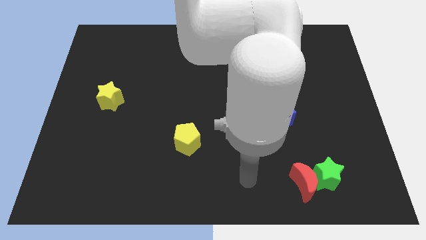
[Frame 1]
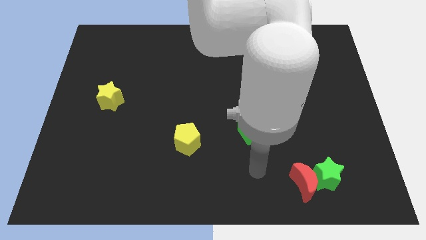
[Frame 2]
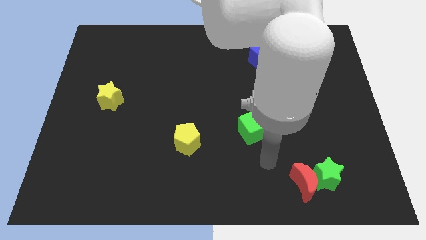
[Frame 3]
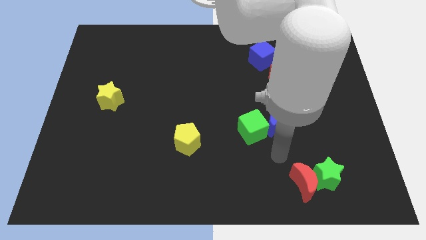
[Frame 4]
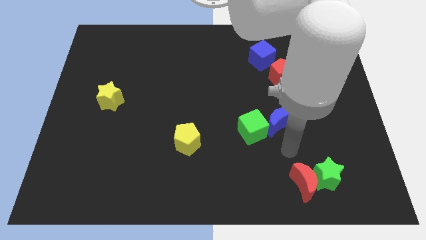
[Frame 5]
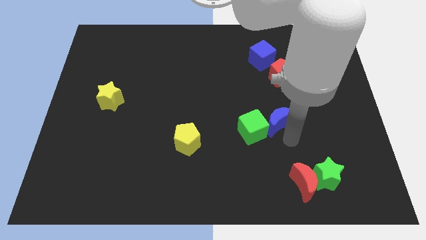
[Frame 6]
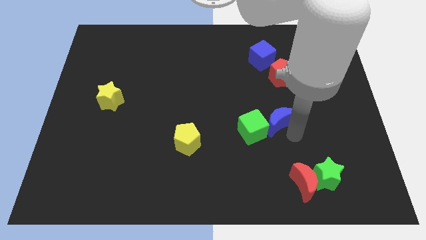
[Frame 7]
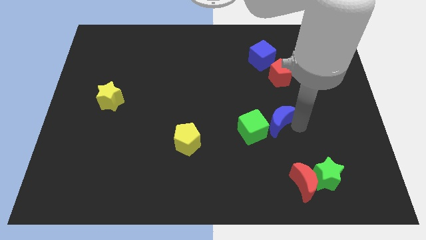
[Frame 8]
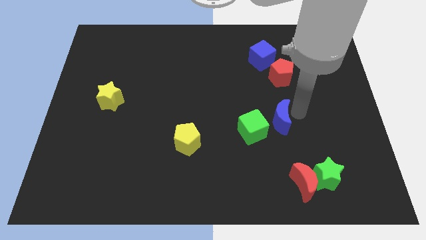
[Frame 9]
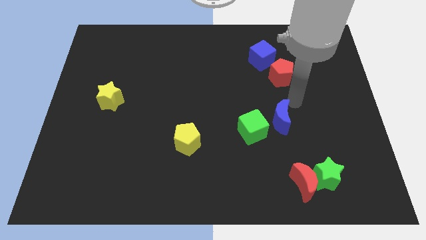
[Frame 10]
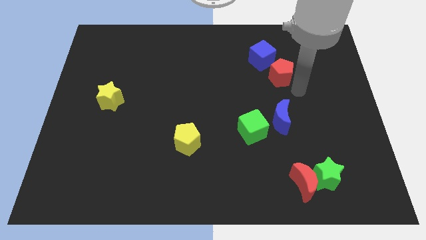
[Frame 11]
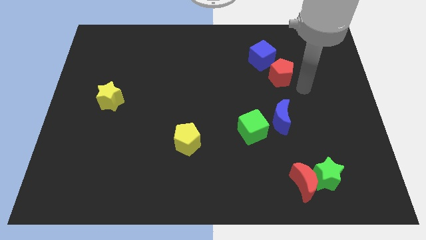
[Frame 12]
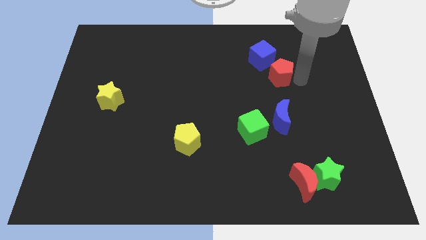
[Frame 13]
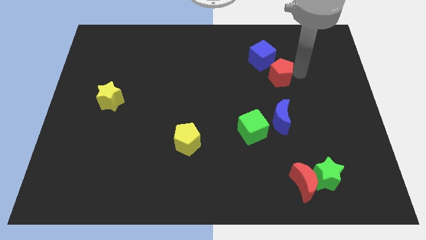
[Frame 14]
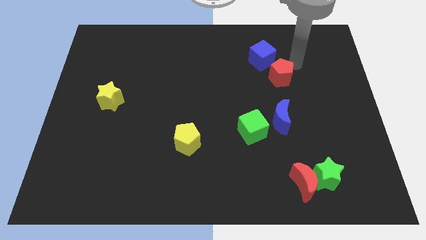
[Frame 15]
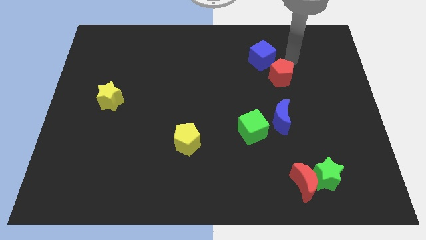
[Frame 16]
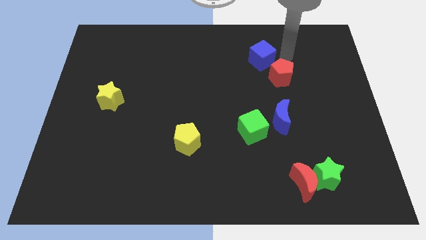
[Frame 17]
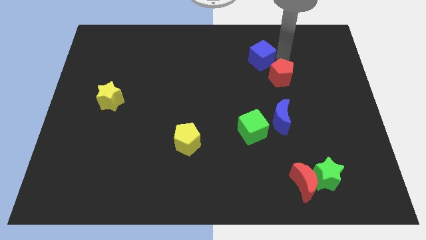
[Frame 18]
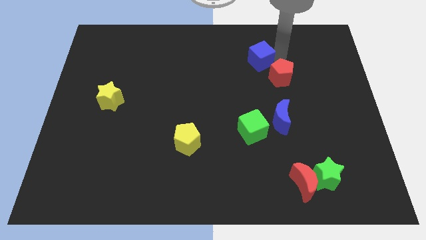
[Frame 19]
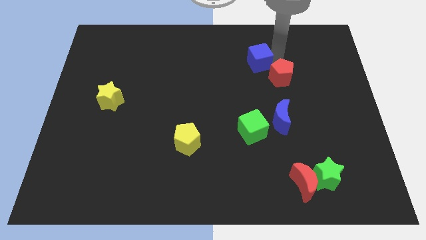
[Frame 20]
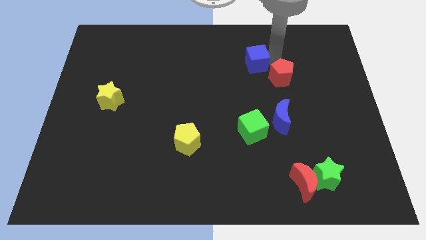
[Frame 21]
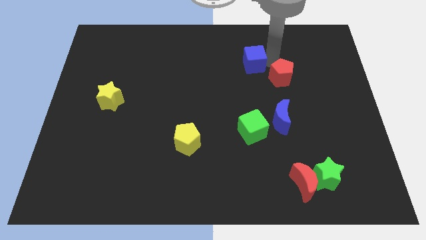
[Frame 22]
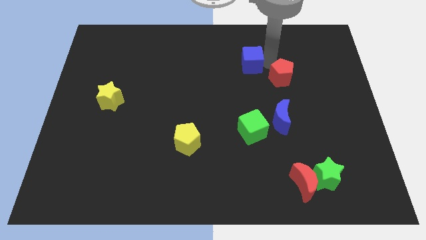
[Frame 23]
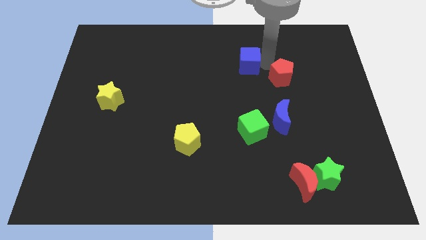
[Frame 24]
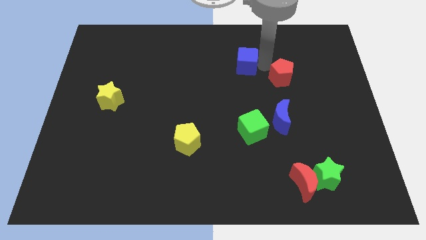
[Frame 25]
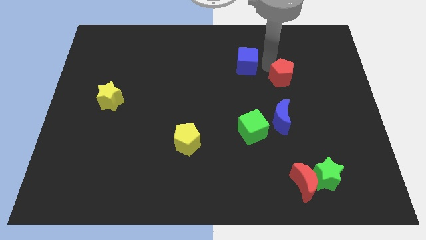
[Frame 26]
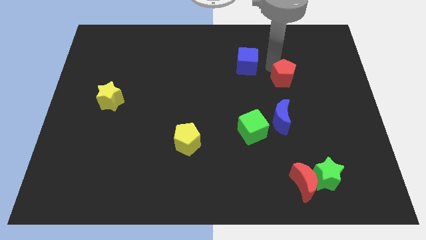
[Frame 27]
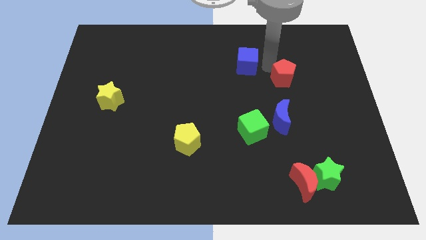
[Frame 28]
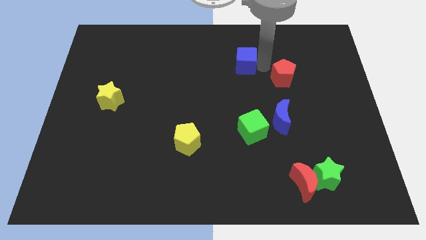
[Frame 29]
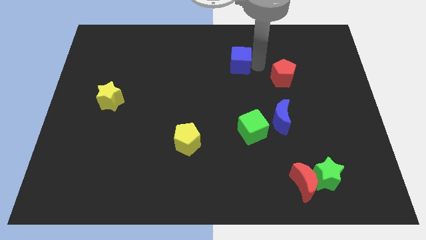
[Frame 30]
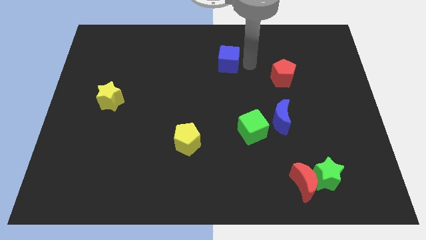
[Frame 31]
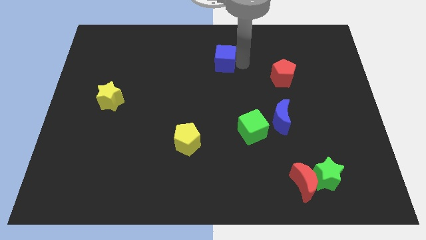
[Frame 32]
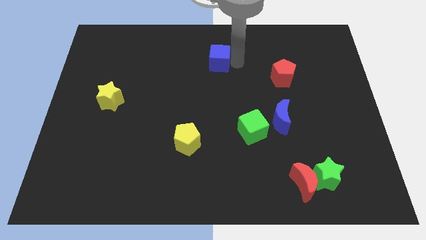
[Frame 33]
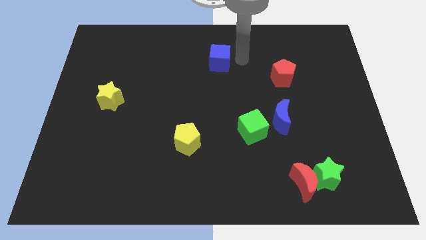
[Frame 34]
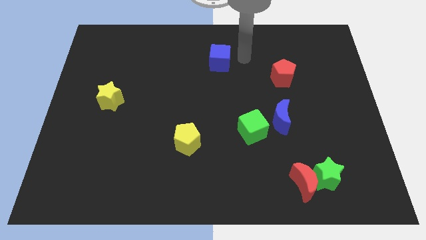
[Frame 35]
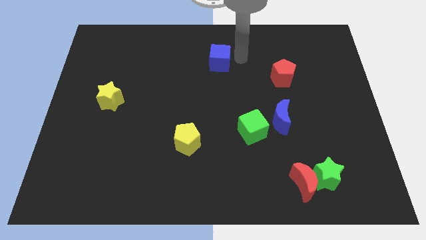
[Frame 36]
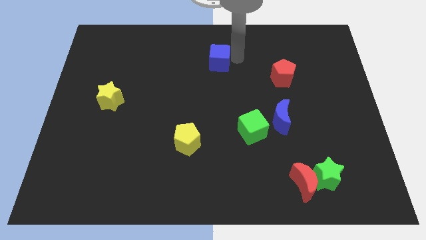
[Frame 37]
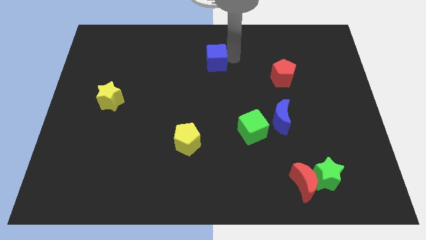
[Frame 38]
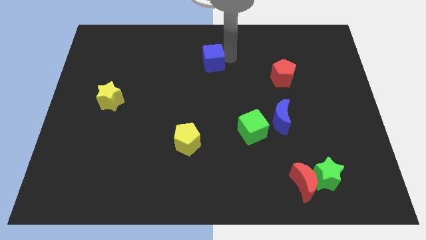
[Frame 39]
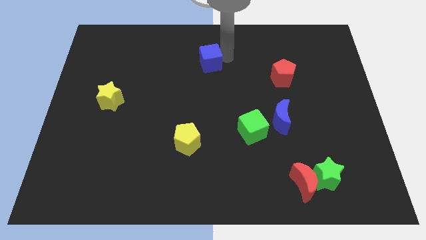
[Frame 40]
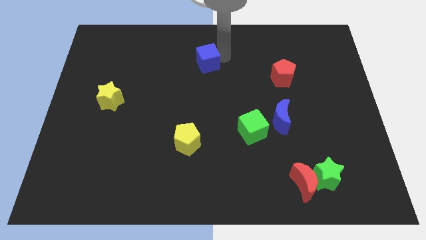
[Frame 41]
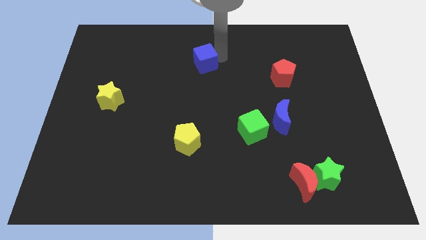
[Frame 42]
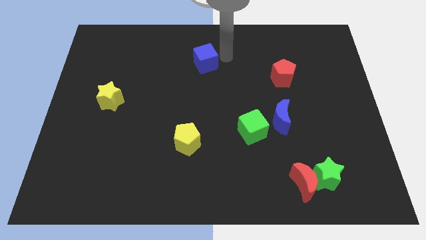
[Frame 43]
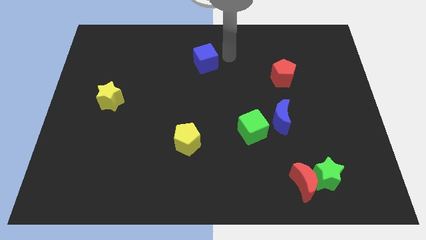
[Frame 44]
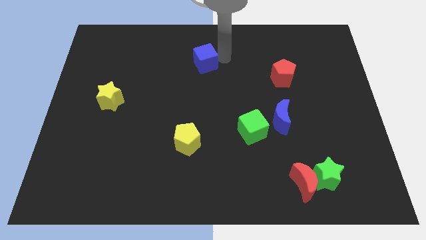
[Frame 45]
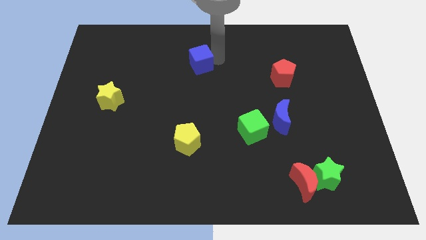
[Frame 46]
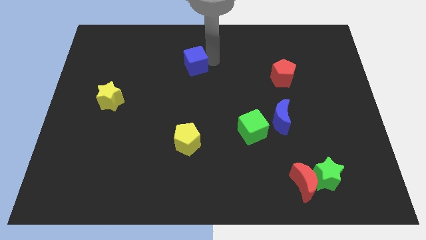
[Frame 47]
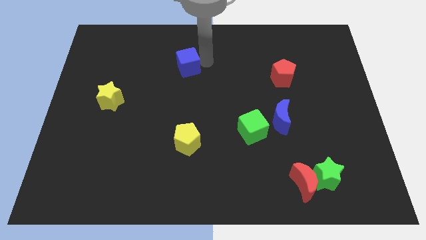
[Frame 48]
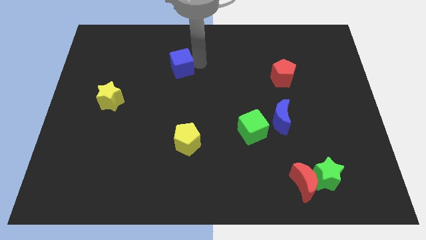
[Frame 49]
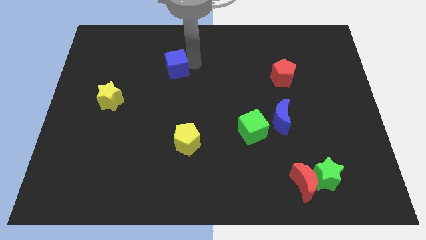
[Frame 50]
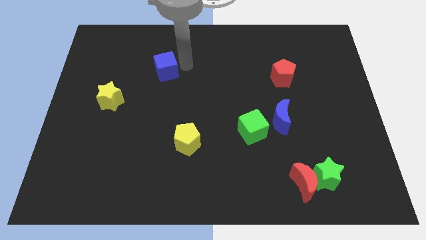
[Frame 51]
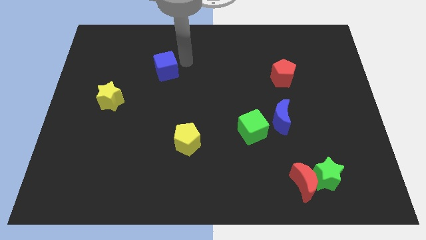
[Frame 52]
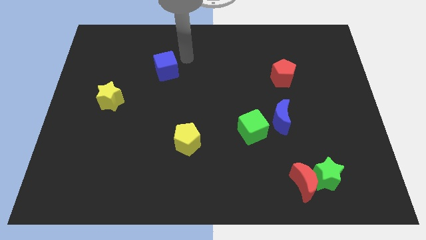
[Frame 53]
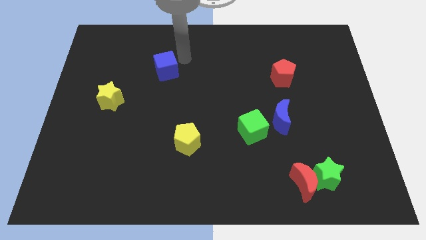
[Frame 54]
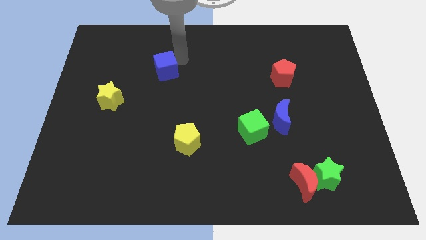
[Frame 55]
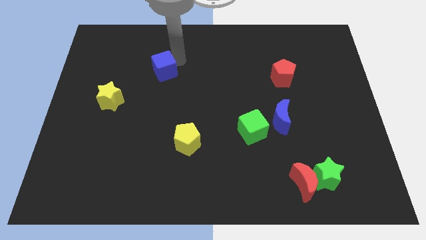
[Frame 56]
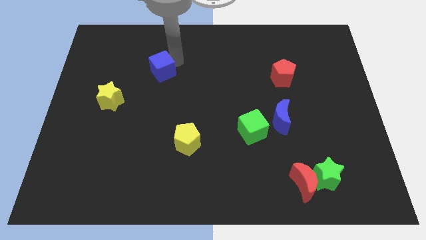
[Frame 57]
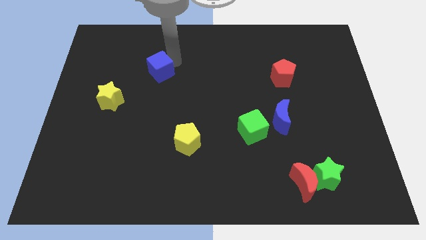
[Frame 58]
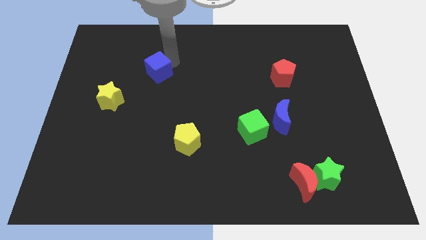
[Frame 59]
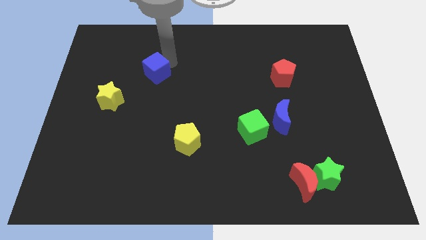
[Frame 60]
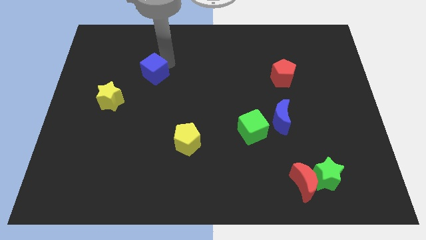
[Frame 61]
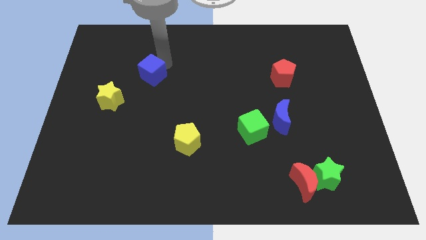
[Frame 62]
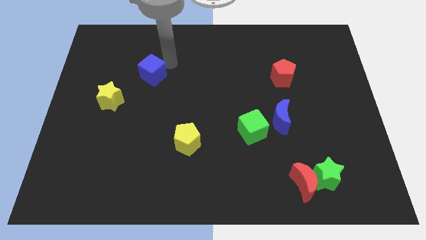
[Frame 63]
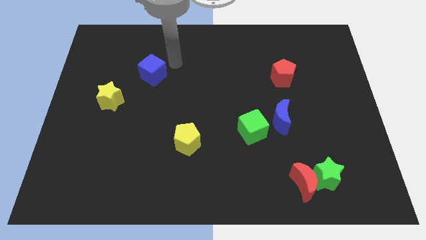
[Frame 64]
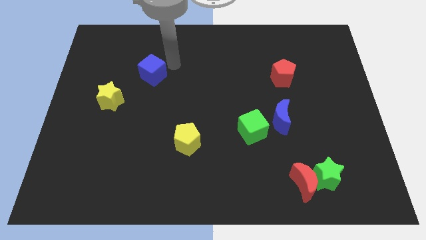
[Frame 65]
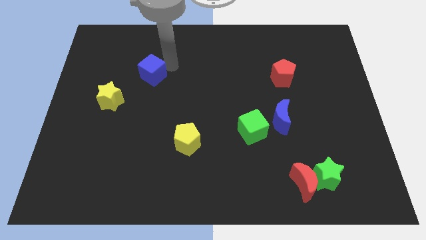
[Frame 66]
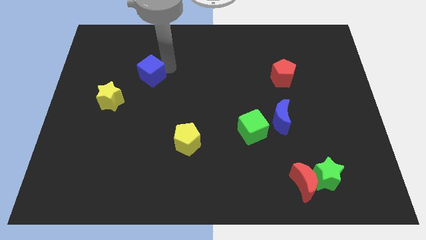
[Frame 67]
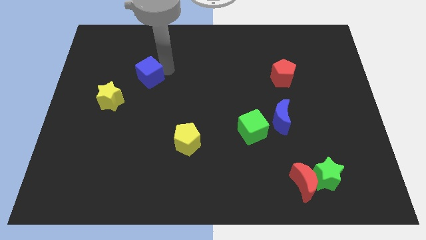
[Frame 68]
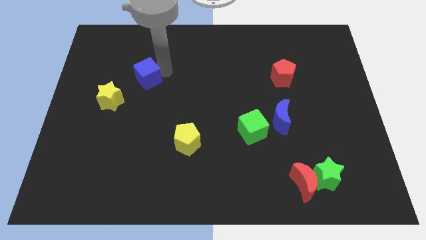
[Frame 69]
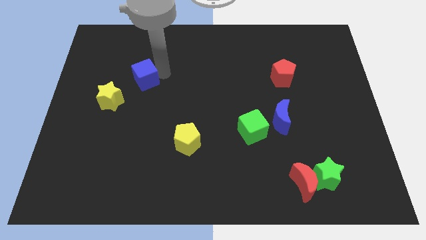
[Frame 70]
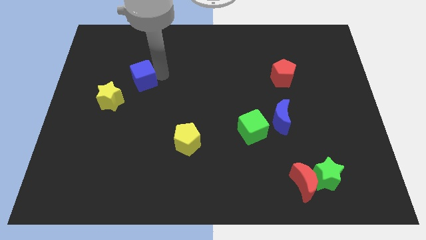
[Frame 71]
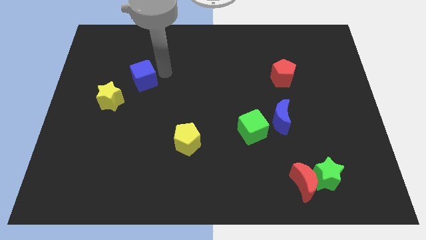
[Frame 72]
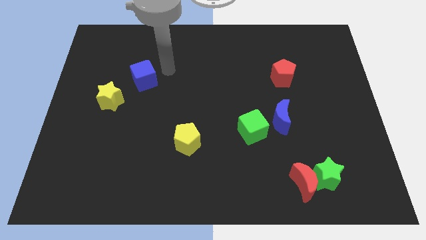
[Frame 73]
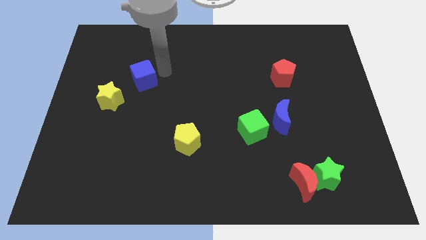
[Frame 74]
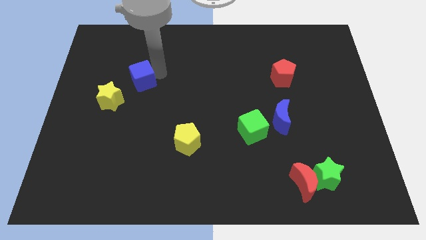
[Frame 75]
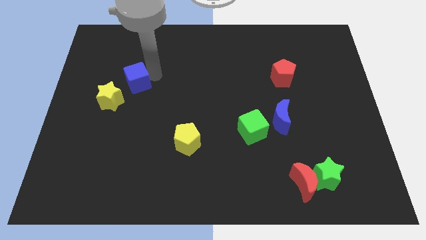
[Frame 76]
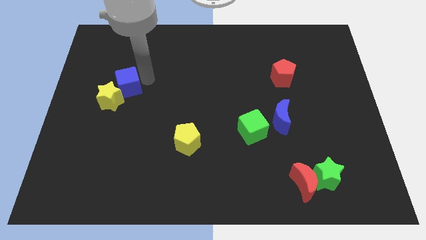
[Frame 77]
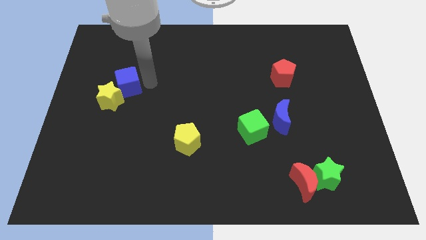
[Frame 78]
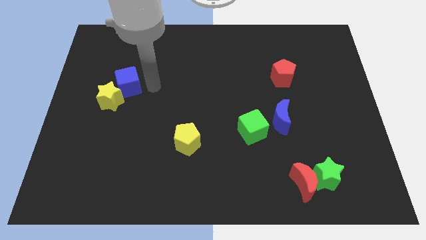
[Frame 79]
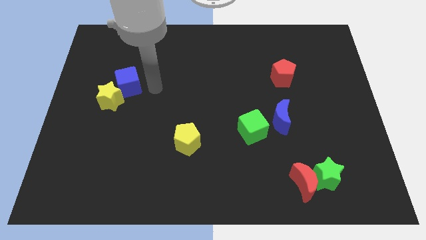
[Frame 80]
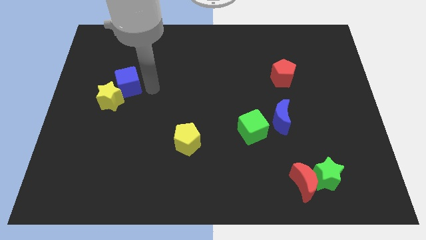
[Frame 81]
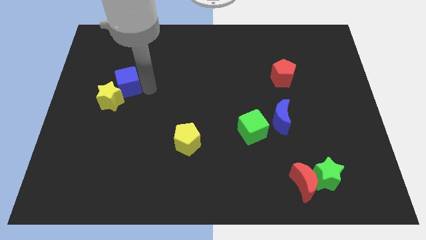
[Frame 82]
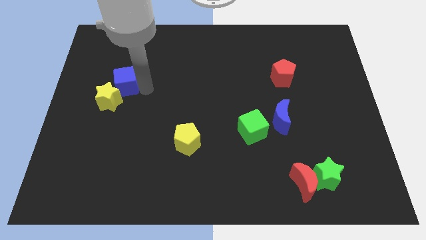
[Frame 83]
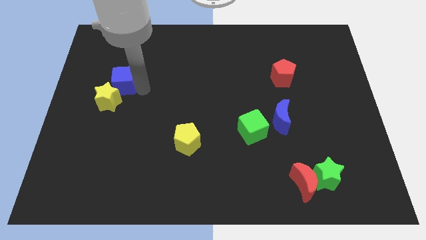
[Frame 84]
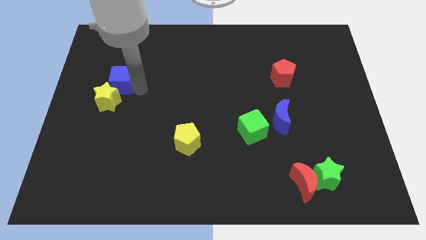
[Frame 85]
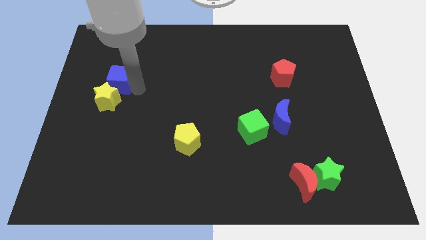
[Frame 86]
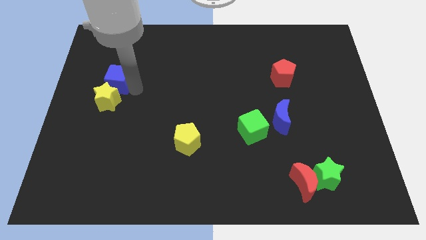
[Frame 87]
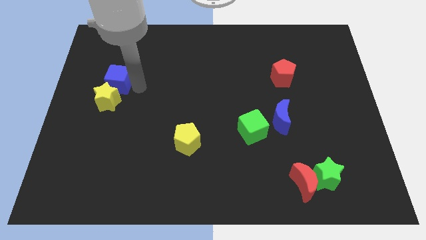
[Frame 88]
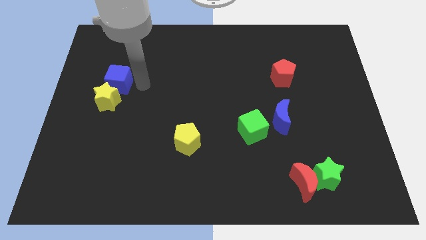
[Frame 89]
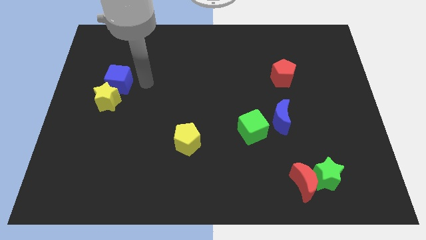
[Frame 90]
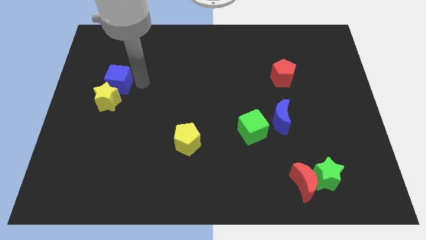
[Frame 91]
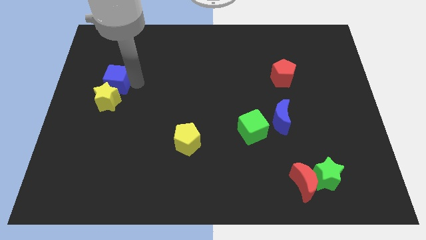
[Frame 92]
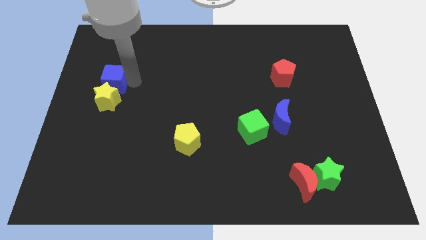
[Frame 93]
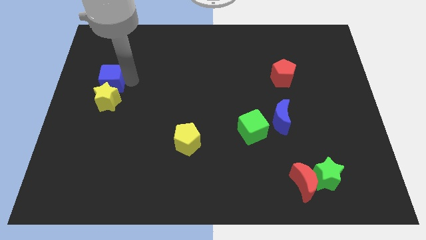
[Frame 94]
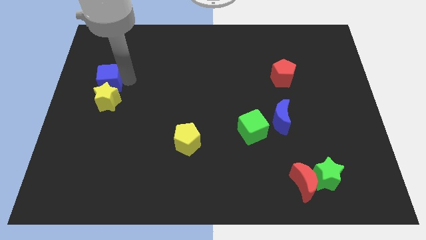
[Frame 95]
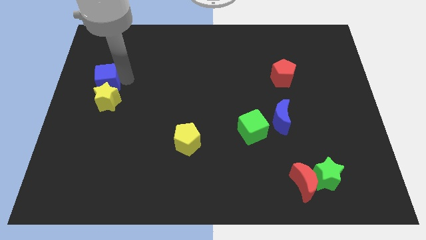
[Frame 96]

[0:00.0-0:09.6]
move the blue cube to the left side
